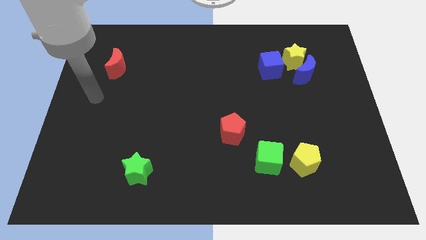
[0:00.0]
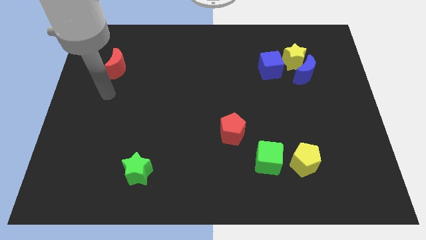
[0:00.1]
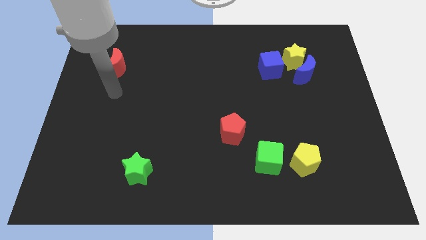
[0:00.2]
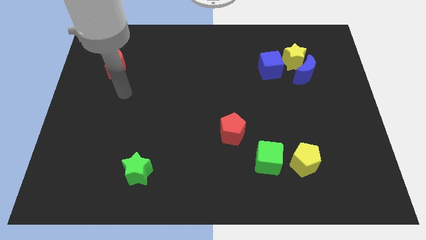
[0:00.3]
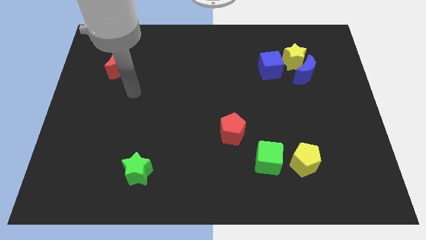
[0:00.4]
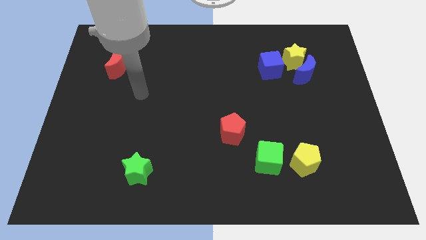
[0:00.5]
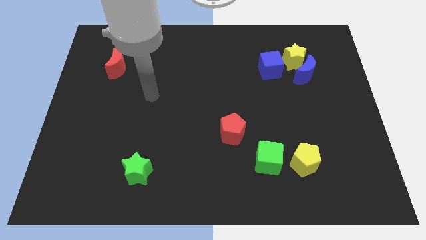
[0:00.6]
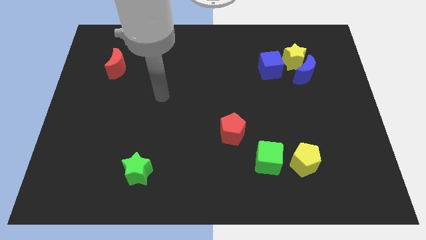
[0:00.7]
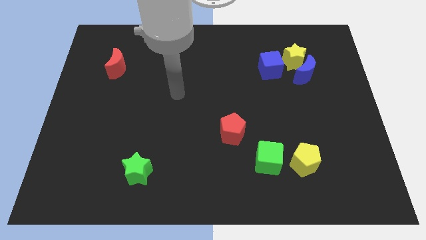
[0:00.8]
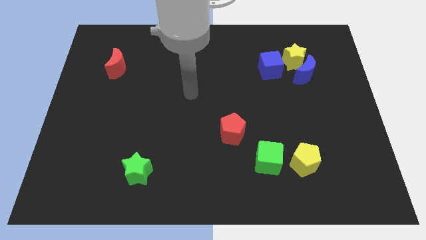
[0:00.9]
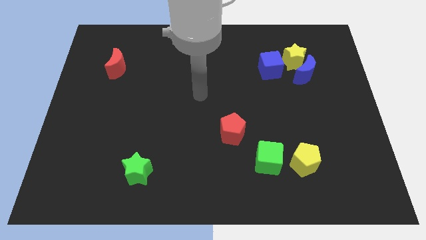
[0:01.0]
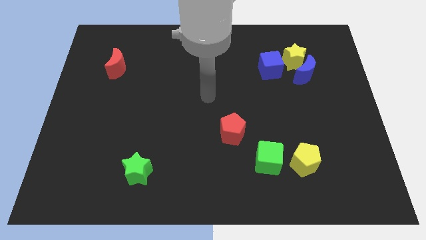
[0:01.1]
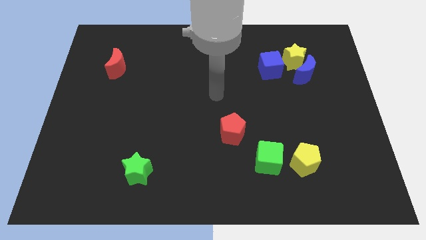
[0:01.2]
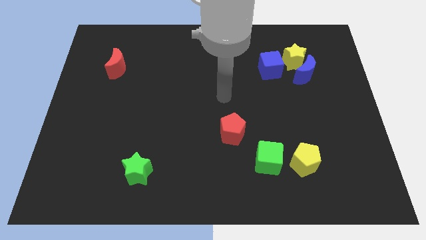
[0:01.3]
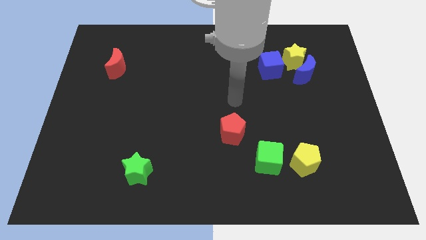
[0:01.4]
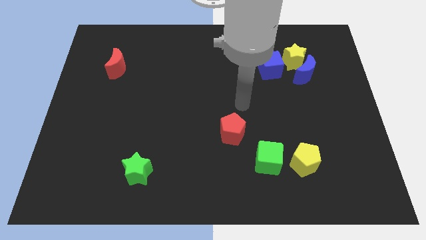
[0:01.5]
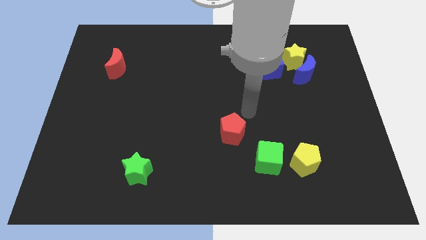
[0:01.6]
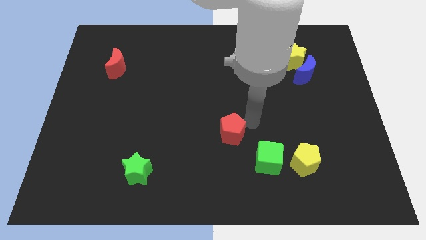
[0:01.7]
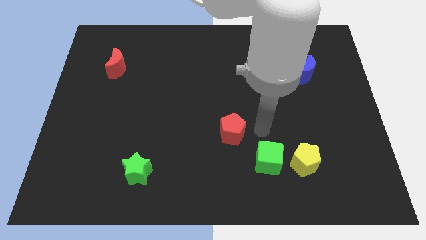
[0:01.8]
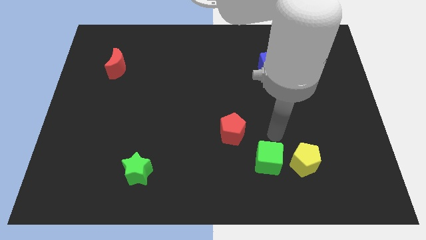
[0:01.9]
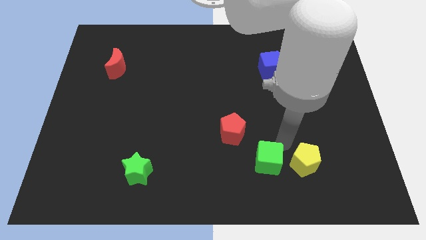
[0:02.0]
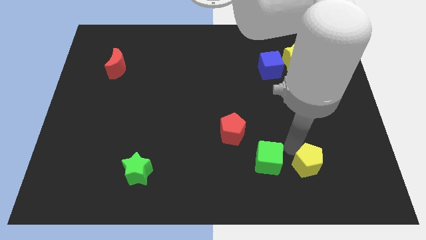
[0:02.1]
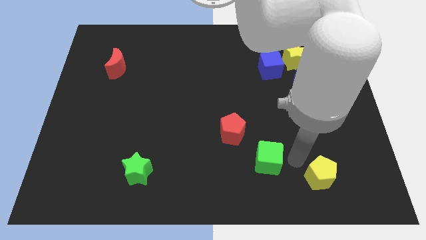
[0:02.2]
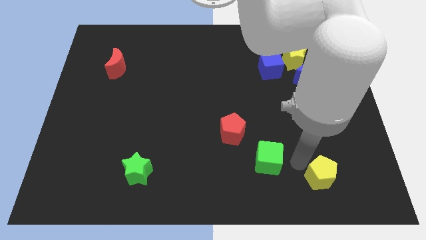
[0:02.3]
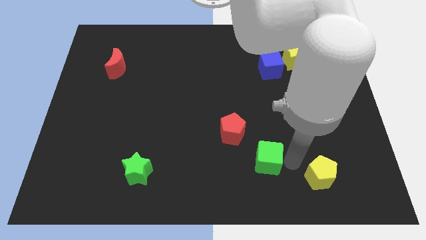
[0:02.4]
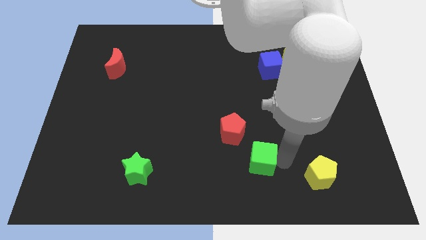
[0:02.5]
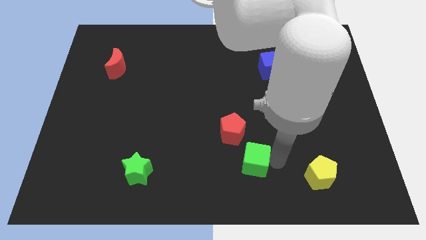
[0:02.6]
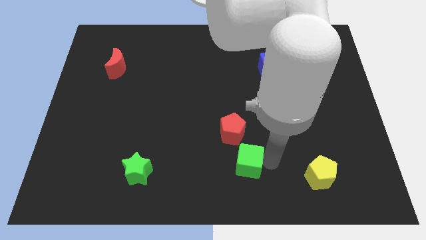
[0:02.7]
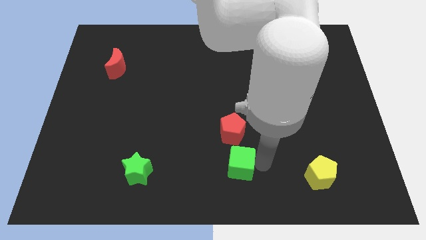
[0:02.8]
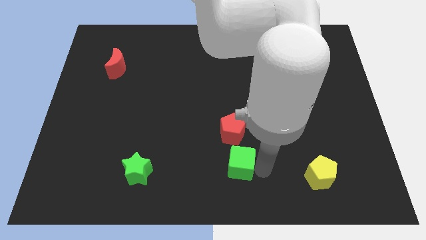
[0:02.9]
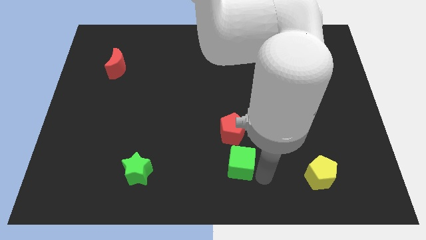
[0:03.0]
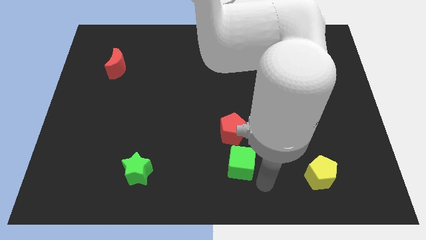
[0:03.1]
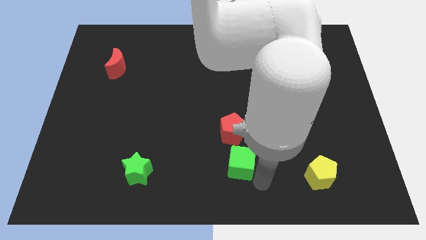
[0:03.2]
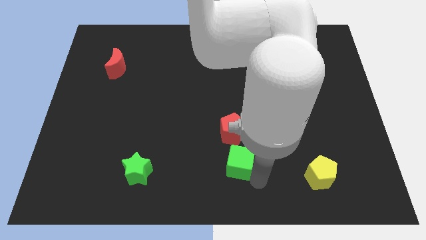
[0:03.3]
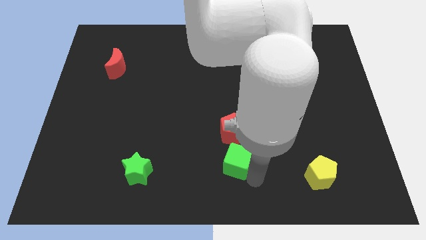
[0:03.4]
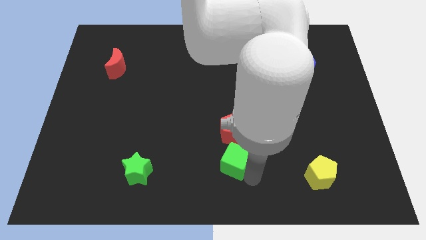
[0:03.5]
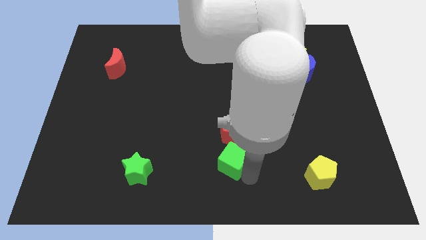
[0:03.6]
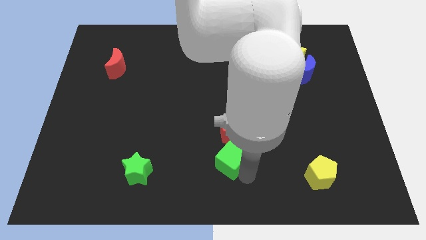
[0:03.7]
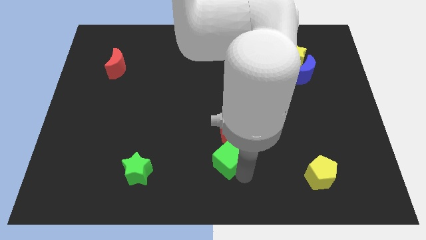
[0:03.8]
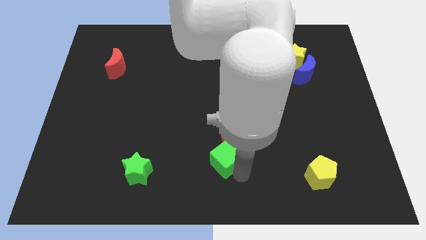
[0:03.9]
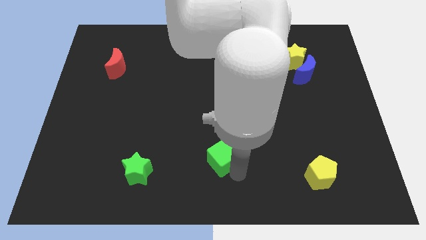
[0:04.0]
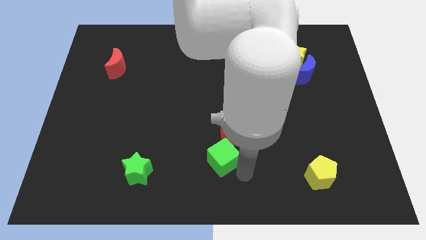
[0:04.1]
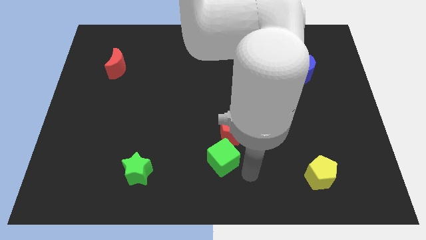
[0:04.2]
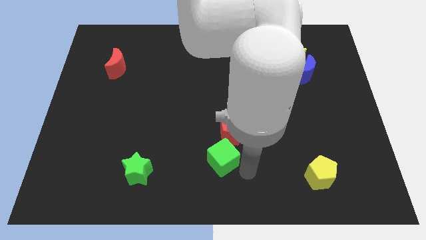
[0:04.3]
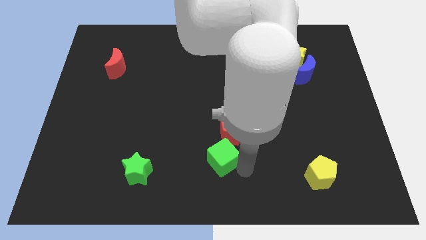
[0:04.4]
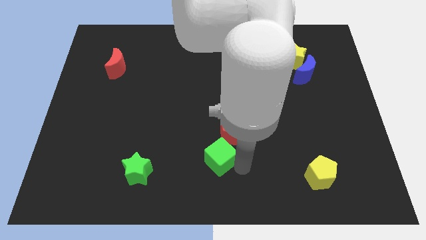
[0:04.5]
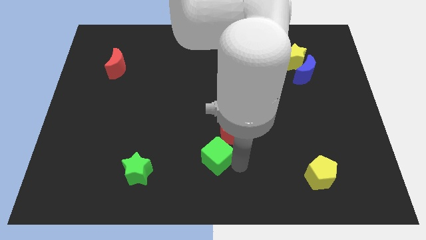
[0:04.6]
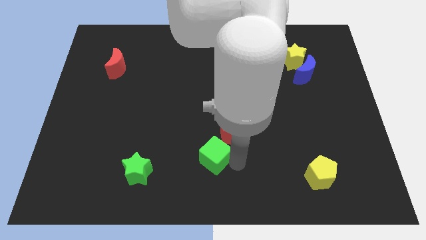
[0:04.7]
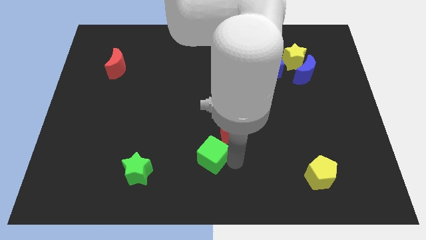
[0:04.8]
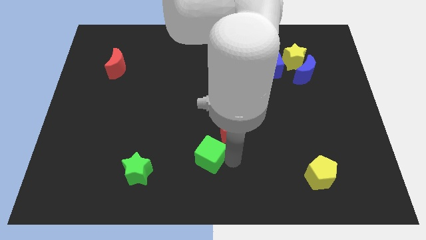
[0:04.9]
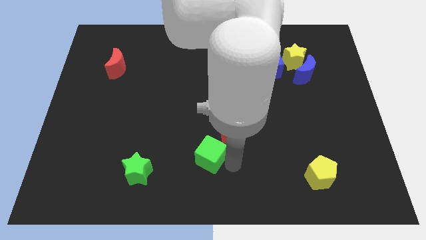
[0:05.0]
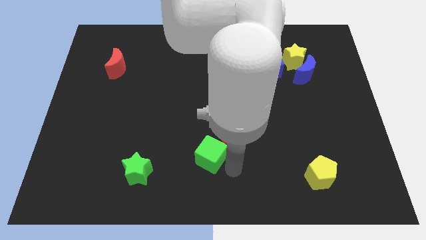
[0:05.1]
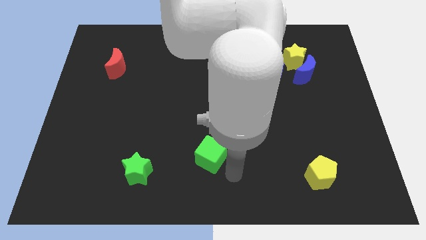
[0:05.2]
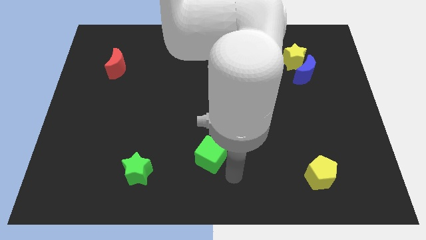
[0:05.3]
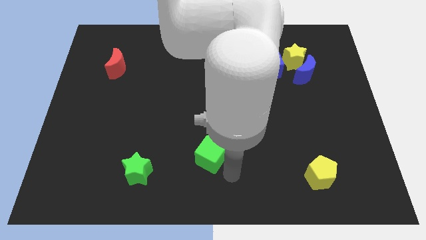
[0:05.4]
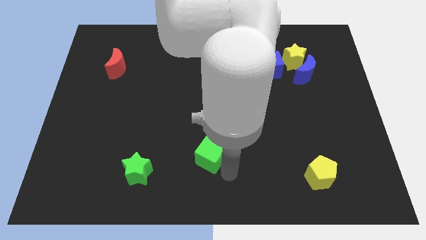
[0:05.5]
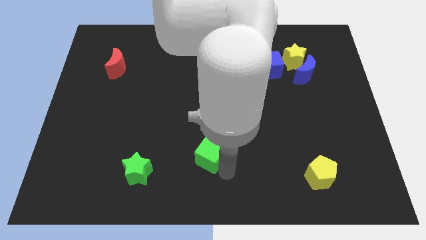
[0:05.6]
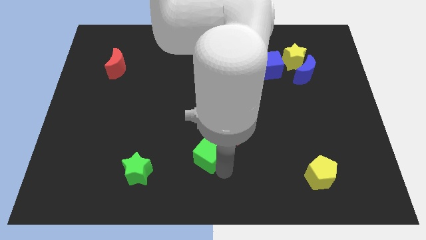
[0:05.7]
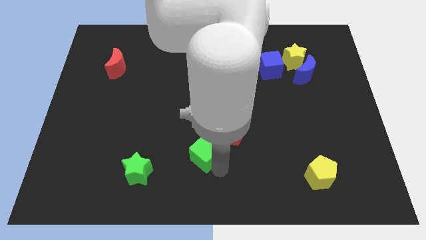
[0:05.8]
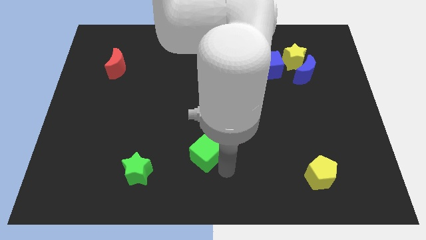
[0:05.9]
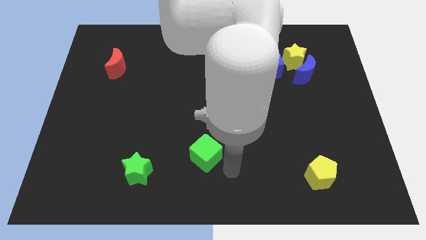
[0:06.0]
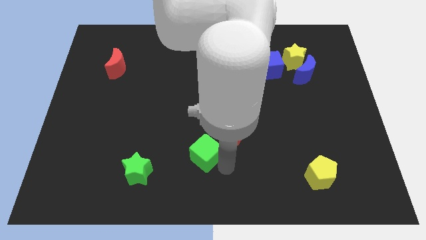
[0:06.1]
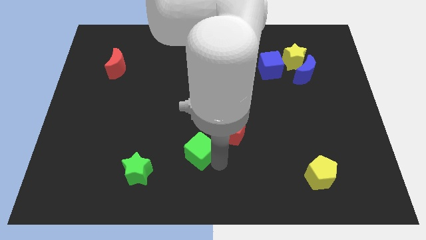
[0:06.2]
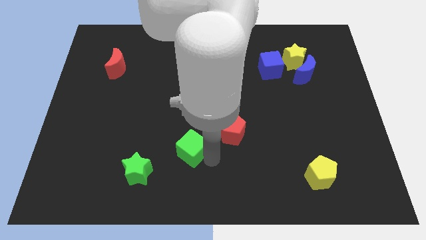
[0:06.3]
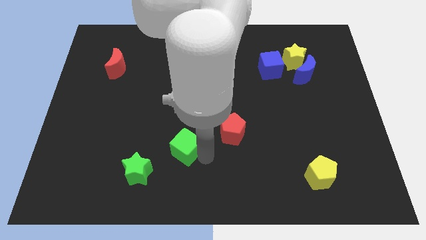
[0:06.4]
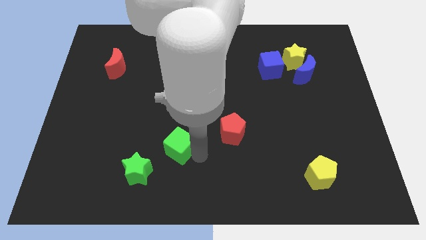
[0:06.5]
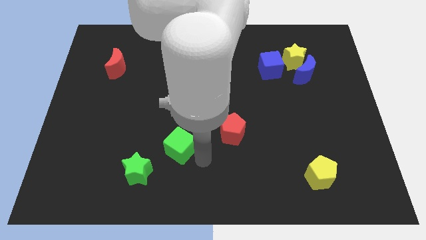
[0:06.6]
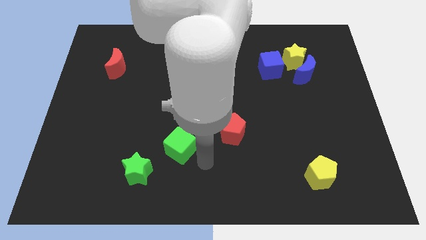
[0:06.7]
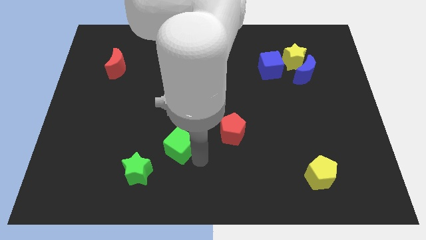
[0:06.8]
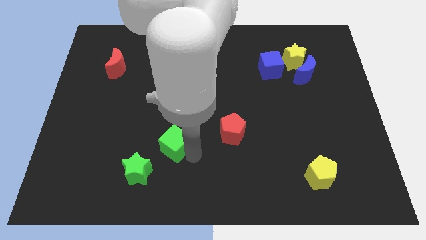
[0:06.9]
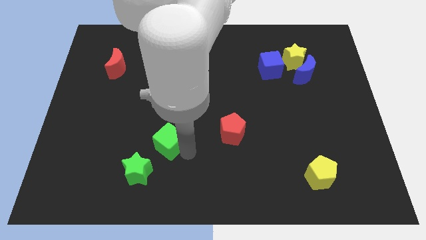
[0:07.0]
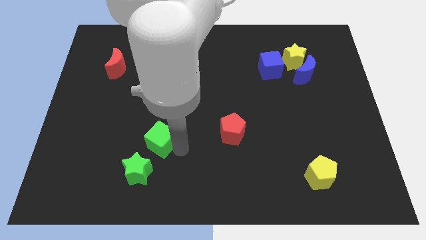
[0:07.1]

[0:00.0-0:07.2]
slide the green cube to the top side of the green star
